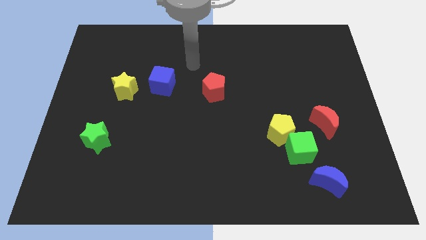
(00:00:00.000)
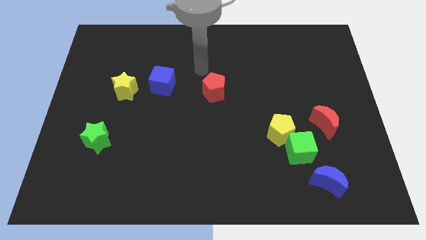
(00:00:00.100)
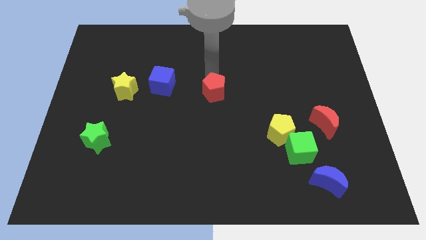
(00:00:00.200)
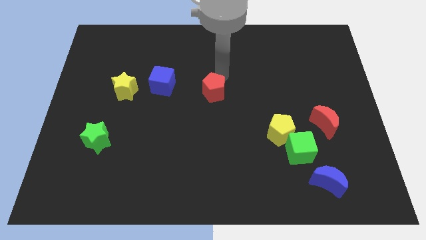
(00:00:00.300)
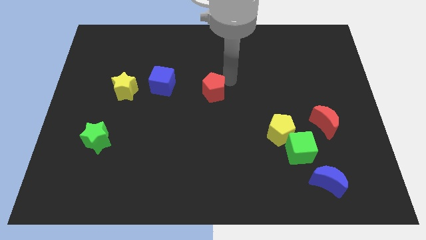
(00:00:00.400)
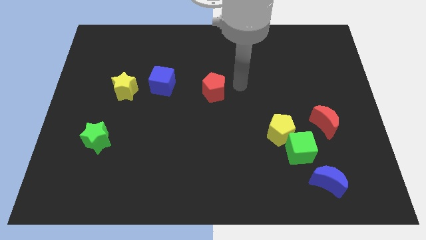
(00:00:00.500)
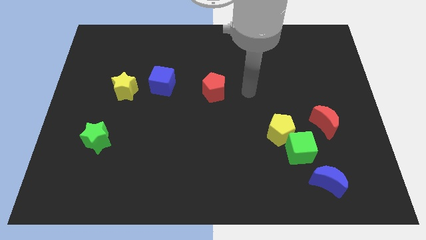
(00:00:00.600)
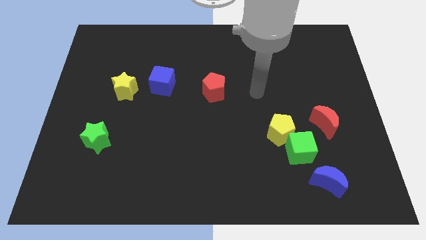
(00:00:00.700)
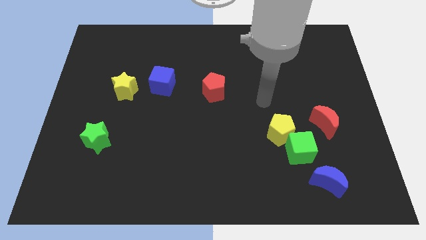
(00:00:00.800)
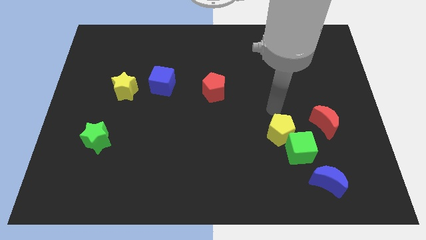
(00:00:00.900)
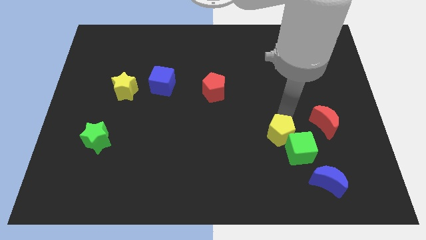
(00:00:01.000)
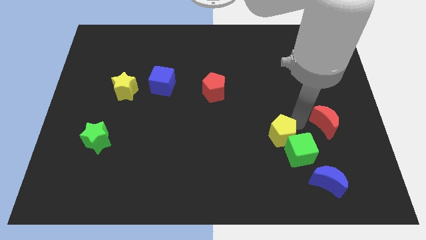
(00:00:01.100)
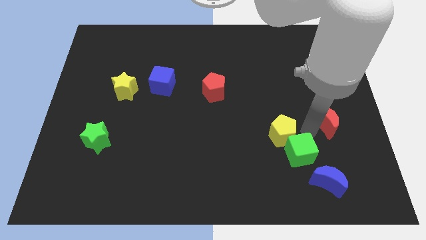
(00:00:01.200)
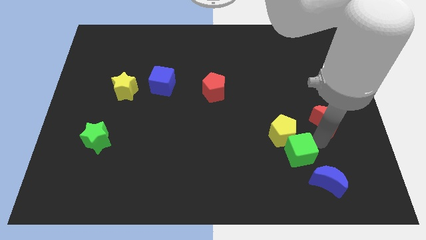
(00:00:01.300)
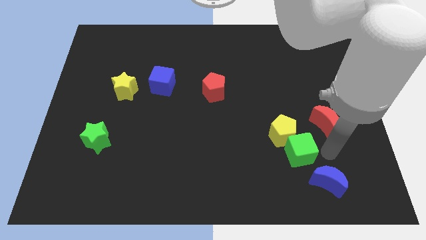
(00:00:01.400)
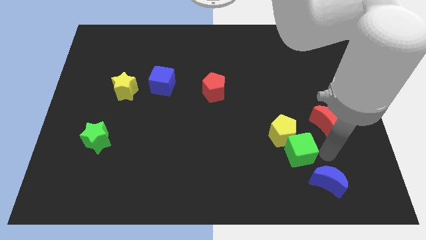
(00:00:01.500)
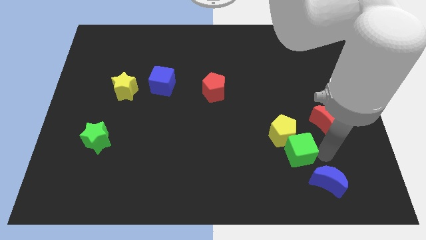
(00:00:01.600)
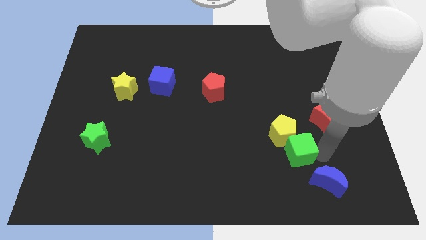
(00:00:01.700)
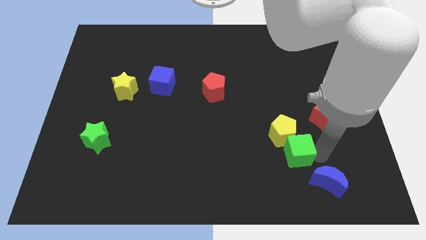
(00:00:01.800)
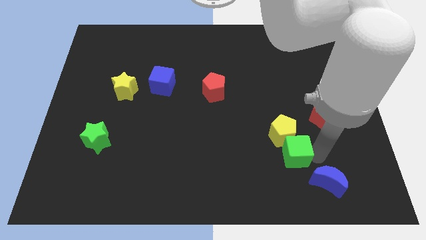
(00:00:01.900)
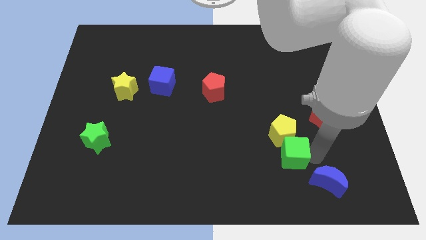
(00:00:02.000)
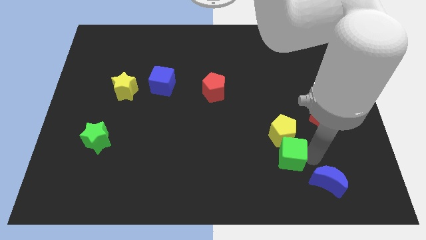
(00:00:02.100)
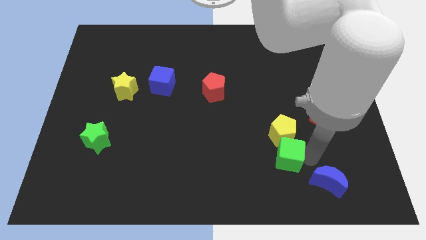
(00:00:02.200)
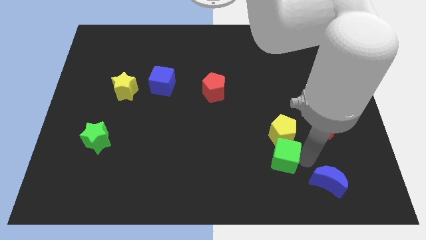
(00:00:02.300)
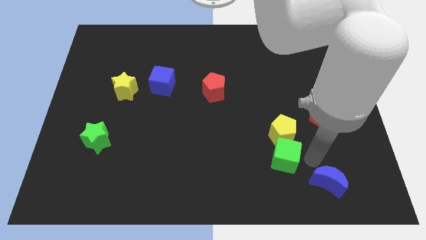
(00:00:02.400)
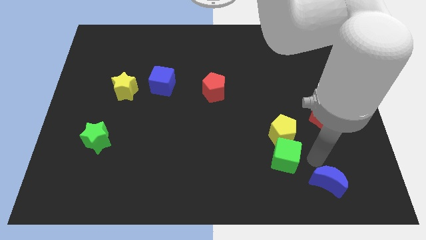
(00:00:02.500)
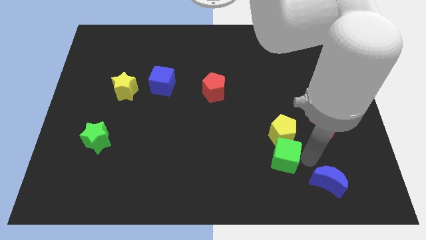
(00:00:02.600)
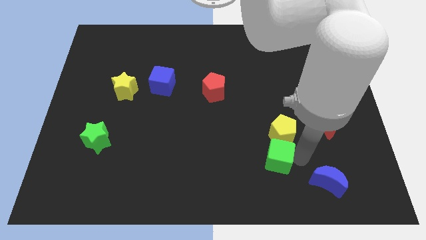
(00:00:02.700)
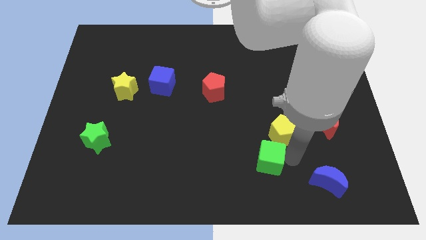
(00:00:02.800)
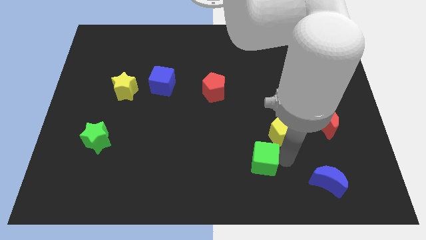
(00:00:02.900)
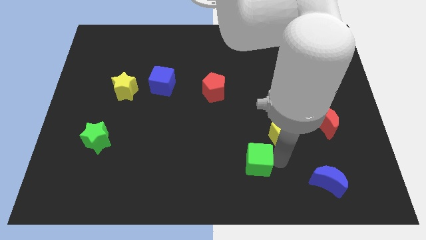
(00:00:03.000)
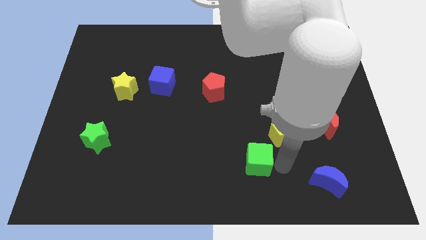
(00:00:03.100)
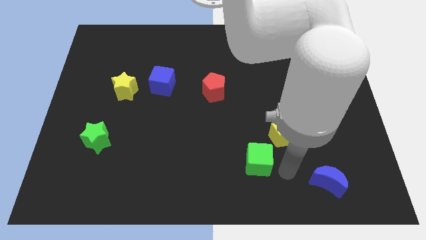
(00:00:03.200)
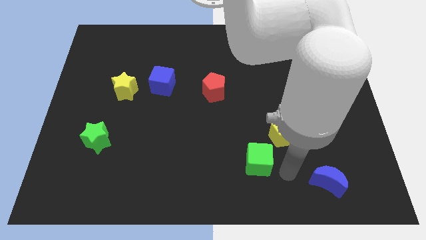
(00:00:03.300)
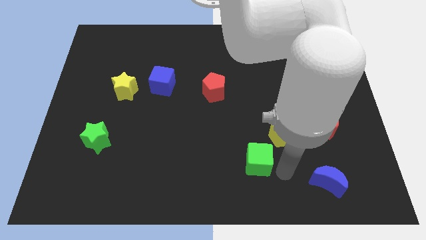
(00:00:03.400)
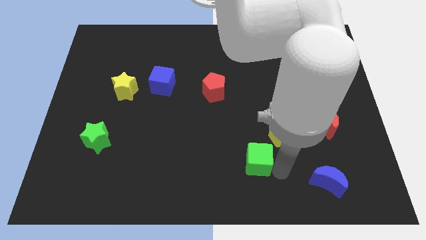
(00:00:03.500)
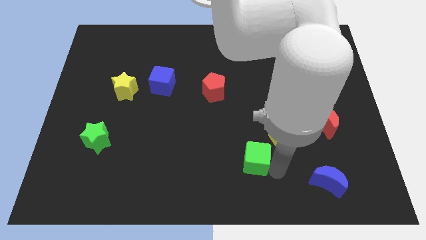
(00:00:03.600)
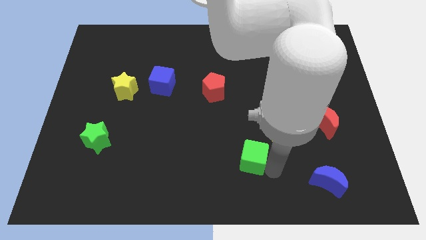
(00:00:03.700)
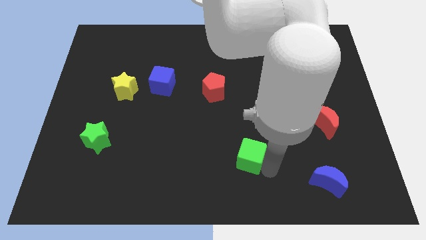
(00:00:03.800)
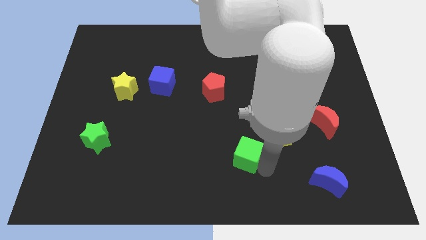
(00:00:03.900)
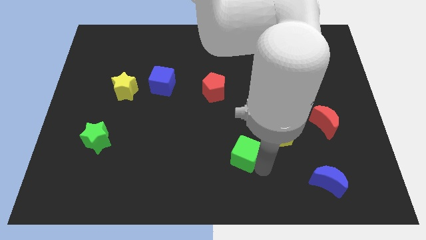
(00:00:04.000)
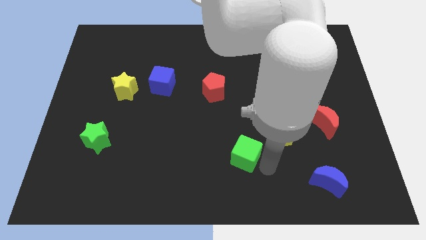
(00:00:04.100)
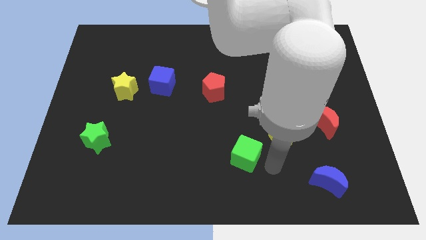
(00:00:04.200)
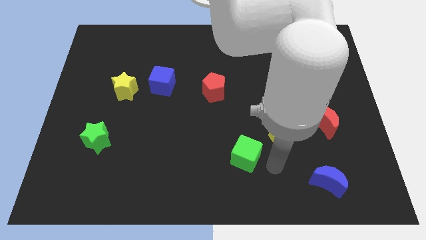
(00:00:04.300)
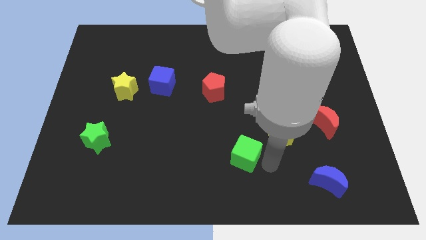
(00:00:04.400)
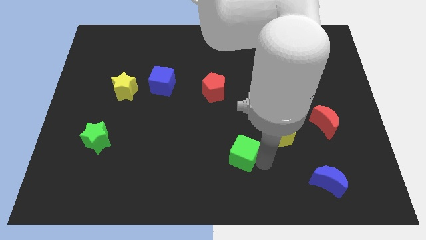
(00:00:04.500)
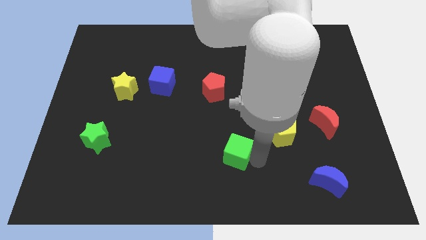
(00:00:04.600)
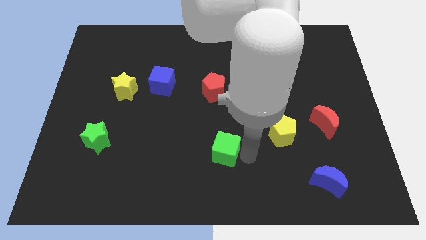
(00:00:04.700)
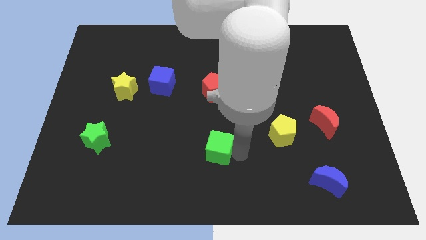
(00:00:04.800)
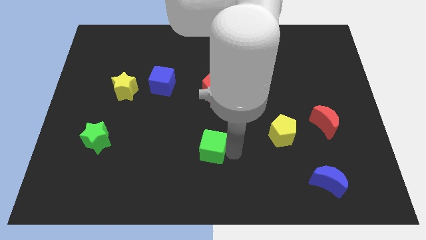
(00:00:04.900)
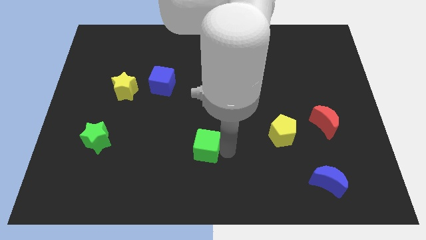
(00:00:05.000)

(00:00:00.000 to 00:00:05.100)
move the green cube to the left

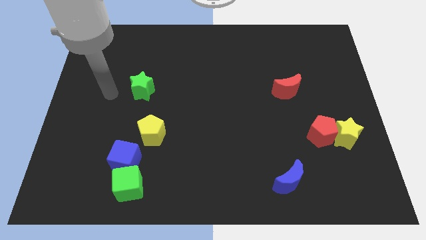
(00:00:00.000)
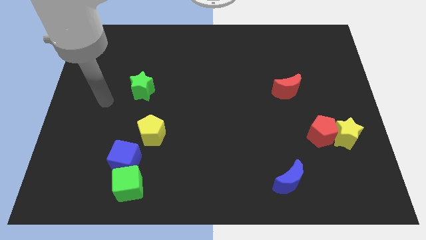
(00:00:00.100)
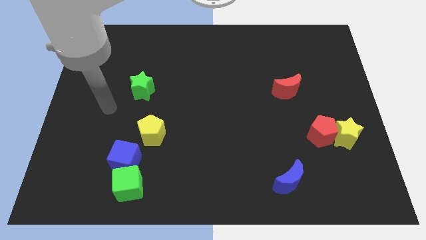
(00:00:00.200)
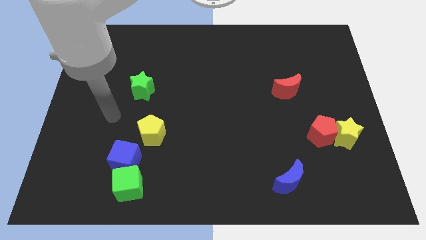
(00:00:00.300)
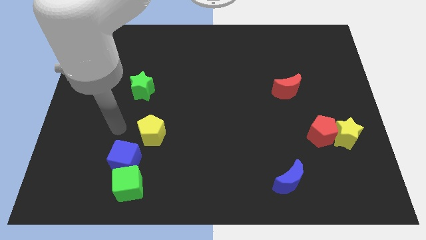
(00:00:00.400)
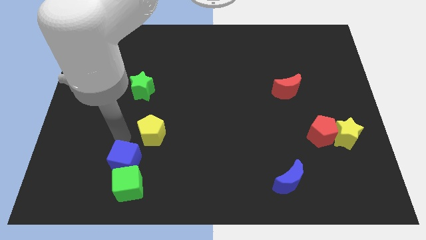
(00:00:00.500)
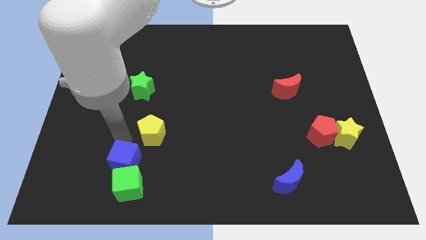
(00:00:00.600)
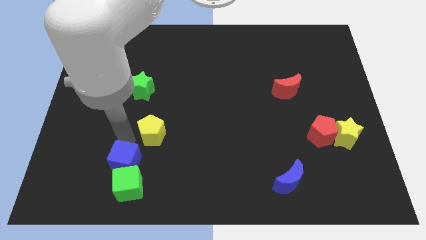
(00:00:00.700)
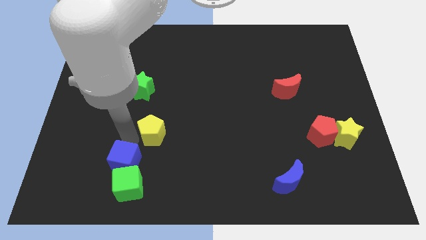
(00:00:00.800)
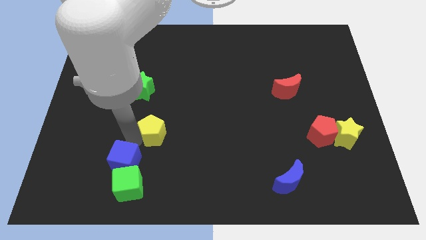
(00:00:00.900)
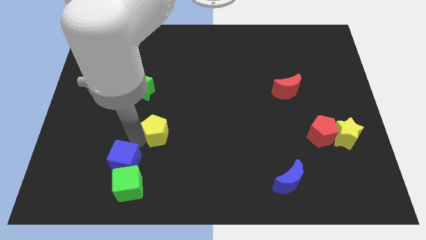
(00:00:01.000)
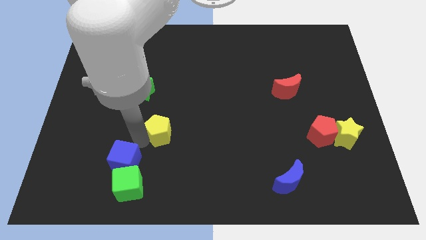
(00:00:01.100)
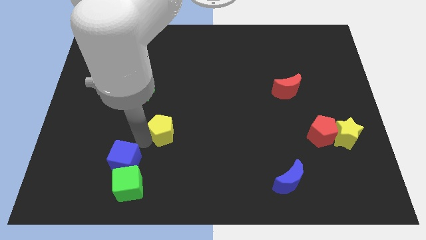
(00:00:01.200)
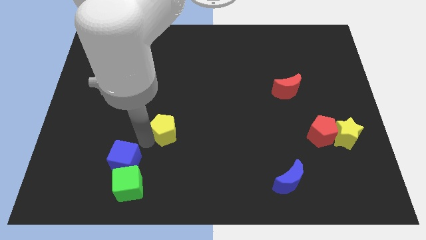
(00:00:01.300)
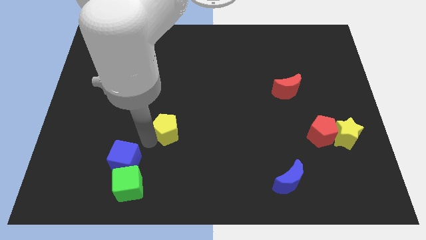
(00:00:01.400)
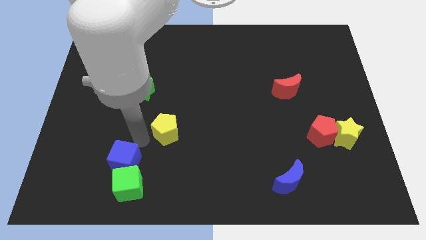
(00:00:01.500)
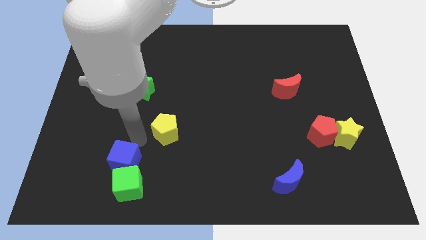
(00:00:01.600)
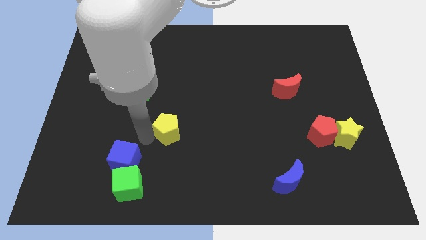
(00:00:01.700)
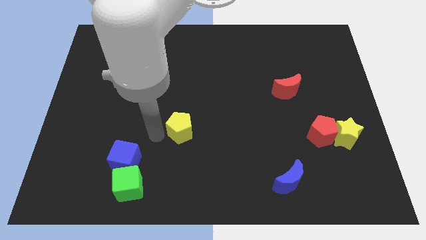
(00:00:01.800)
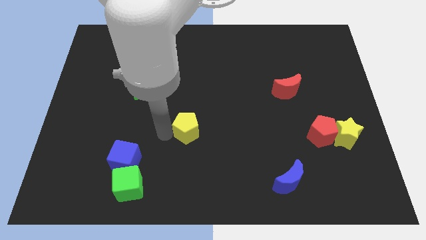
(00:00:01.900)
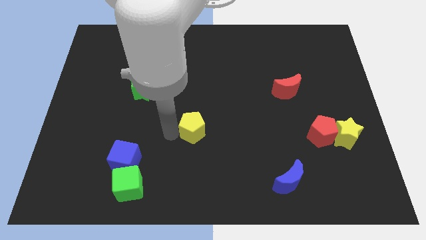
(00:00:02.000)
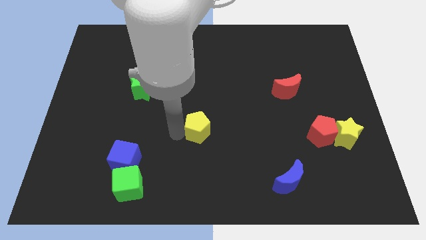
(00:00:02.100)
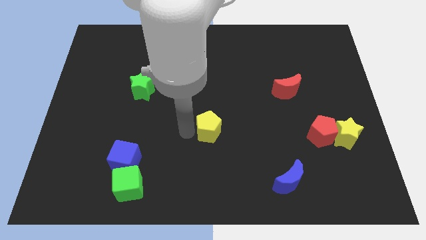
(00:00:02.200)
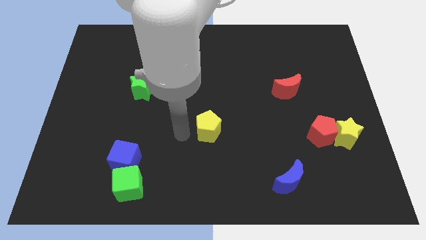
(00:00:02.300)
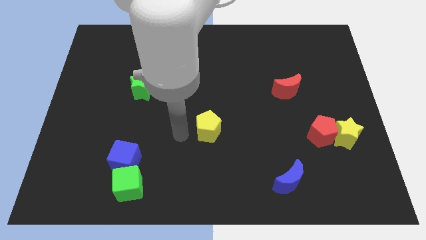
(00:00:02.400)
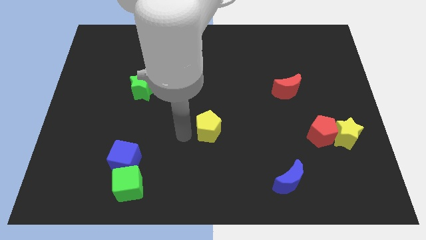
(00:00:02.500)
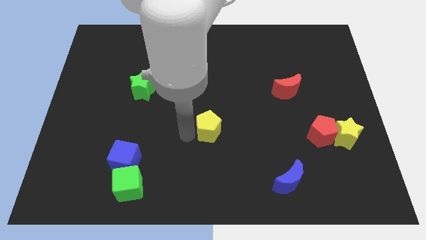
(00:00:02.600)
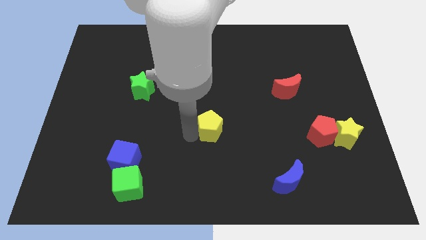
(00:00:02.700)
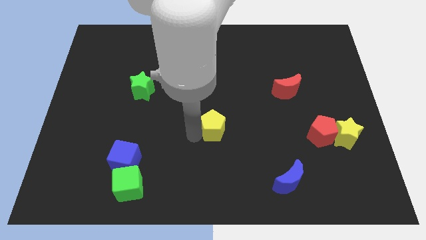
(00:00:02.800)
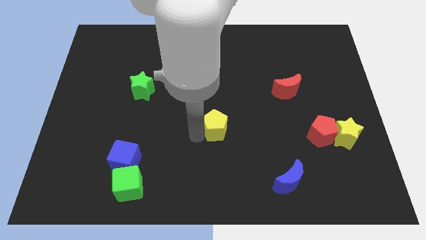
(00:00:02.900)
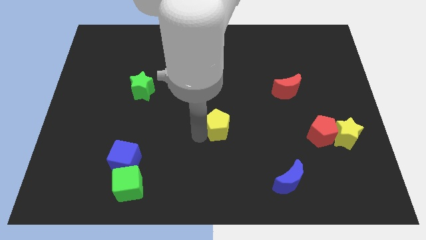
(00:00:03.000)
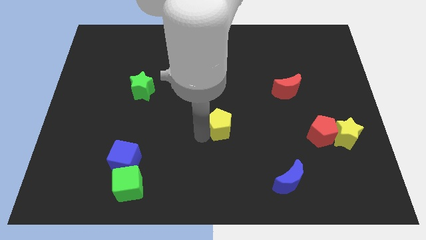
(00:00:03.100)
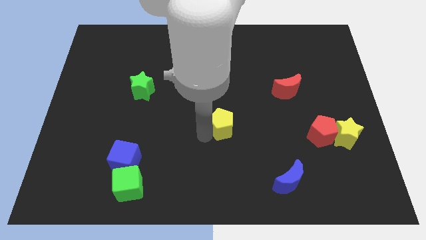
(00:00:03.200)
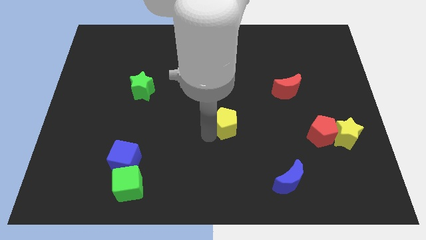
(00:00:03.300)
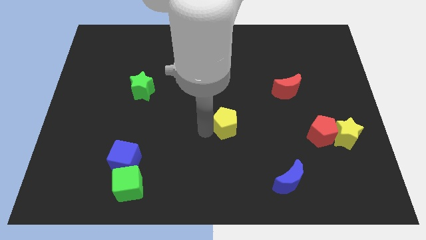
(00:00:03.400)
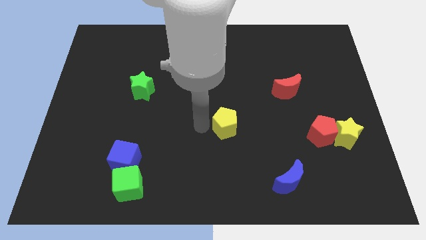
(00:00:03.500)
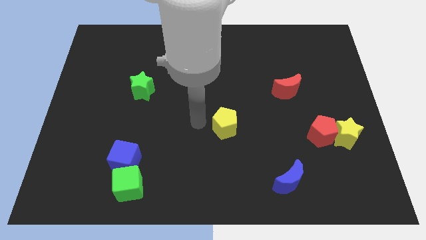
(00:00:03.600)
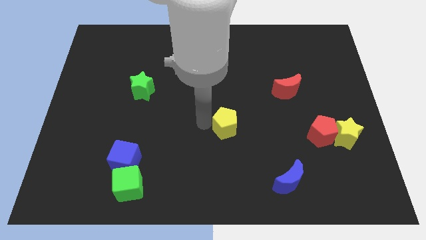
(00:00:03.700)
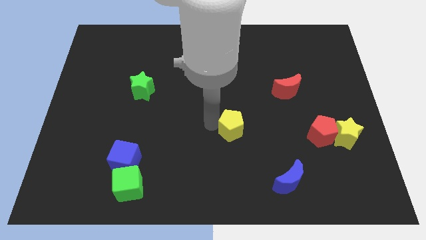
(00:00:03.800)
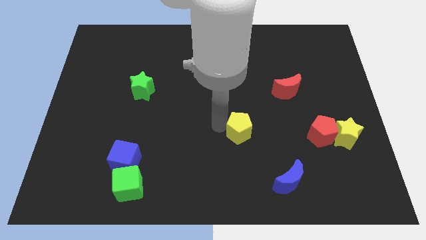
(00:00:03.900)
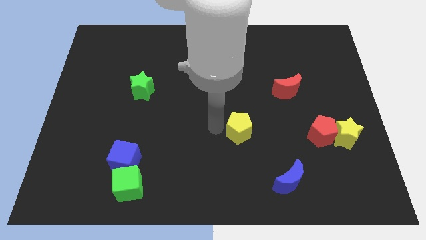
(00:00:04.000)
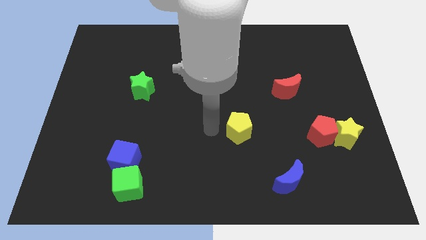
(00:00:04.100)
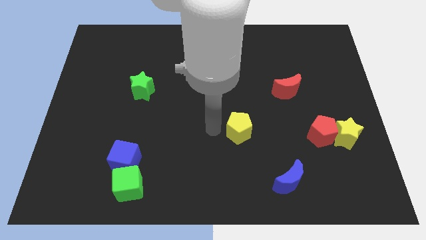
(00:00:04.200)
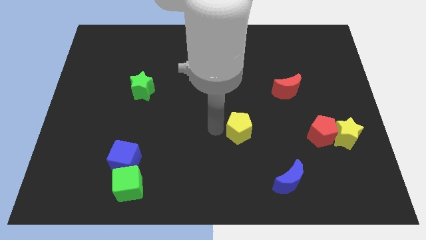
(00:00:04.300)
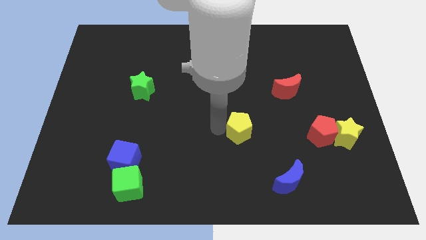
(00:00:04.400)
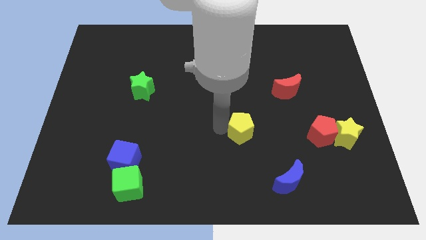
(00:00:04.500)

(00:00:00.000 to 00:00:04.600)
push the yellow pentagon right
